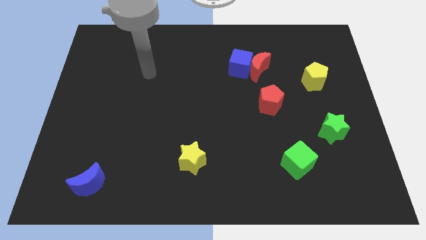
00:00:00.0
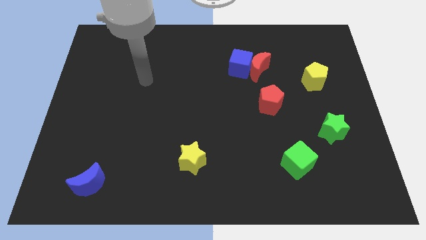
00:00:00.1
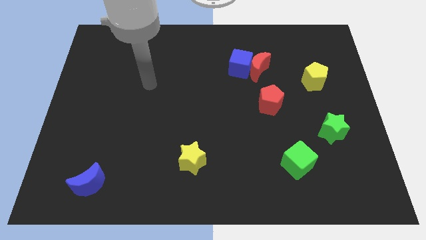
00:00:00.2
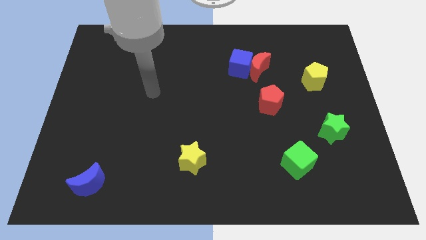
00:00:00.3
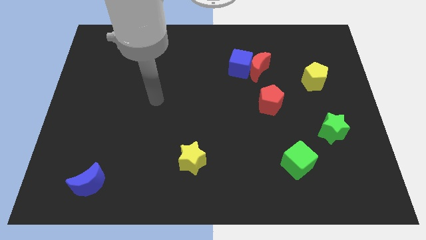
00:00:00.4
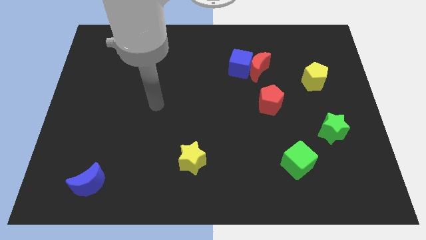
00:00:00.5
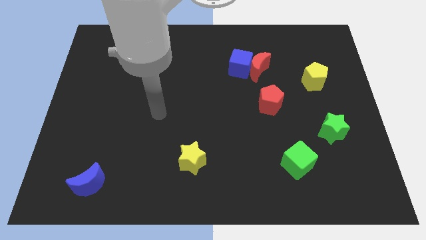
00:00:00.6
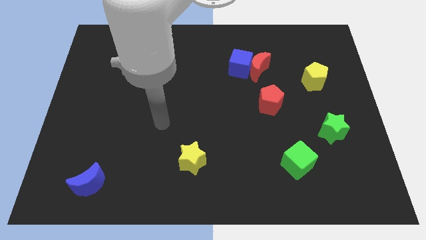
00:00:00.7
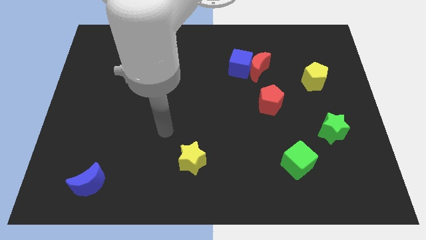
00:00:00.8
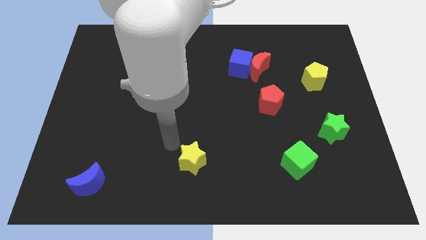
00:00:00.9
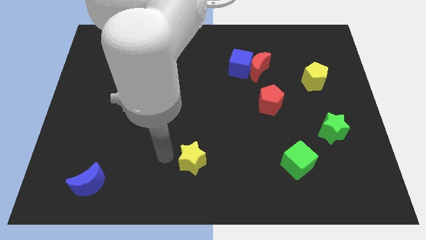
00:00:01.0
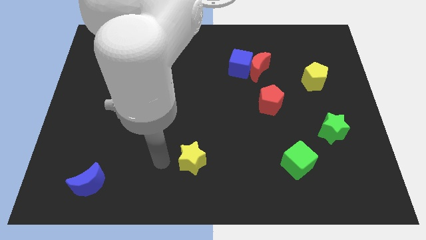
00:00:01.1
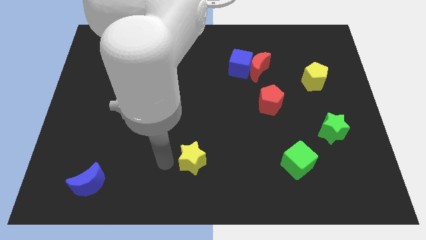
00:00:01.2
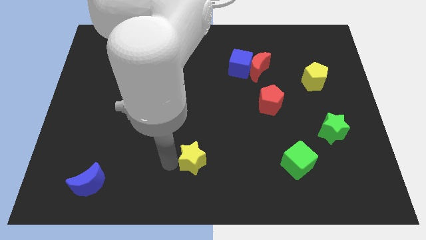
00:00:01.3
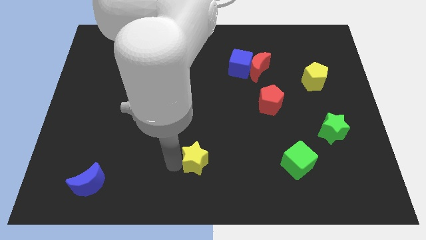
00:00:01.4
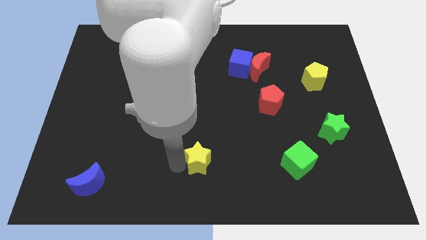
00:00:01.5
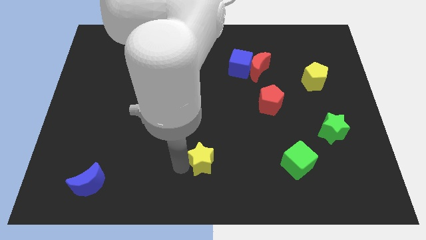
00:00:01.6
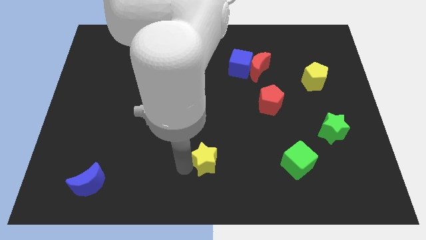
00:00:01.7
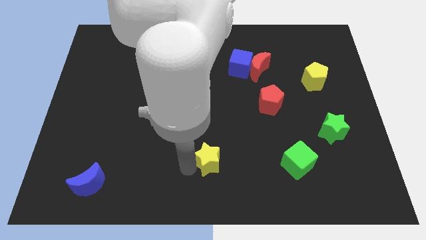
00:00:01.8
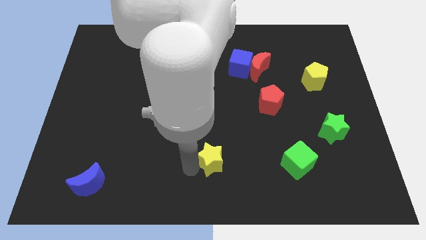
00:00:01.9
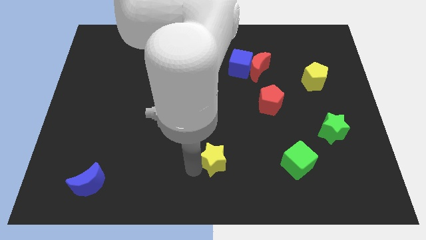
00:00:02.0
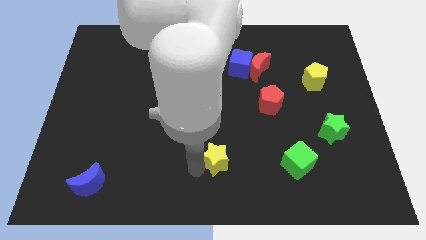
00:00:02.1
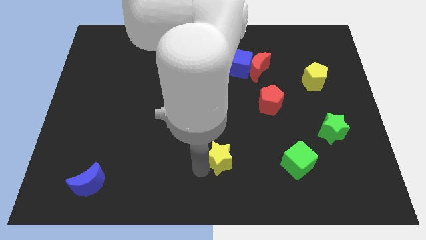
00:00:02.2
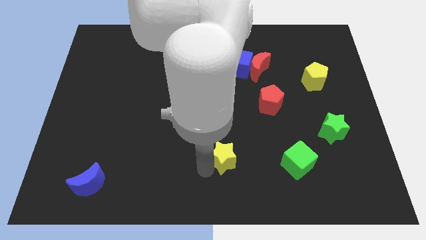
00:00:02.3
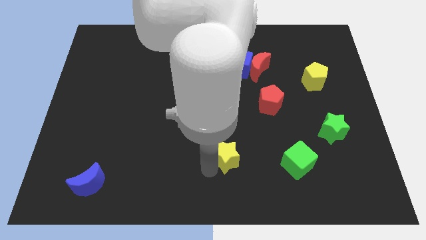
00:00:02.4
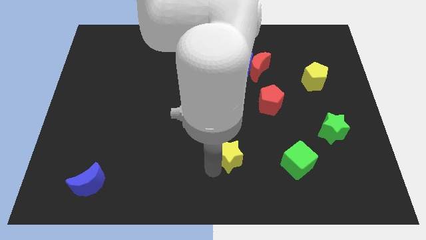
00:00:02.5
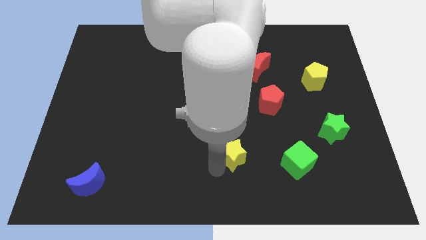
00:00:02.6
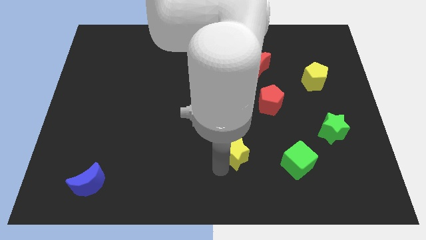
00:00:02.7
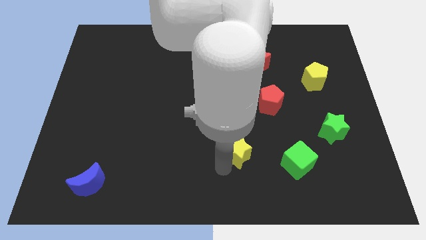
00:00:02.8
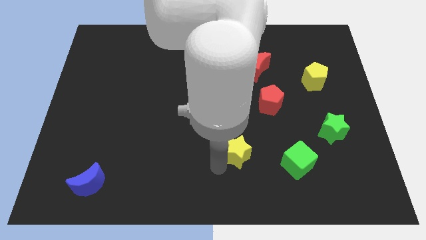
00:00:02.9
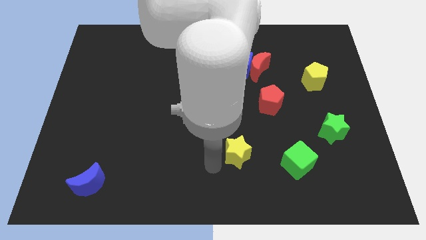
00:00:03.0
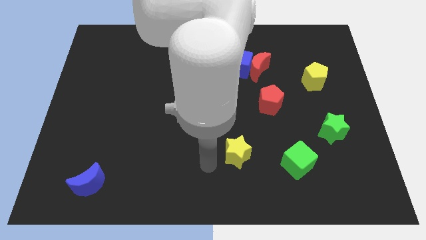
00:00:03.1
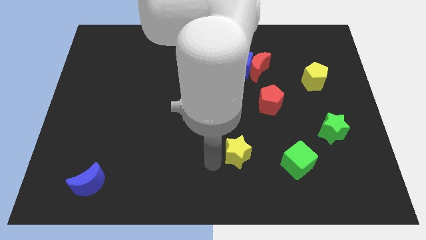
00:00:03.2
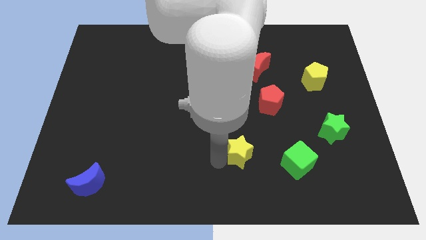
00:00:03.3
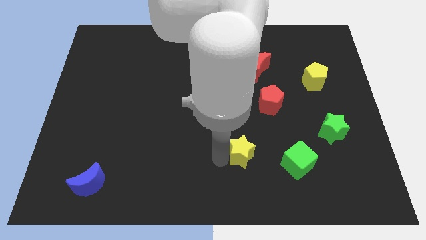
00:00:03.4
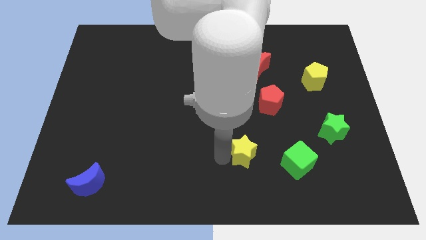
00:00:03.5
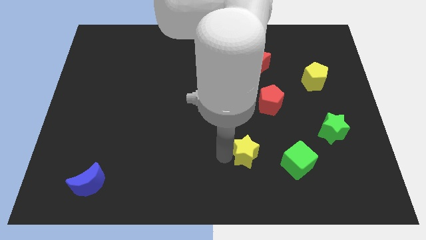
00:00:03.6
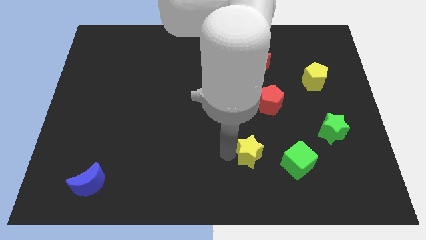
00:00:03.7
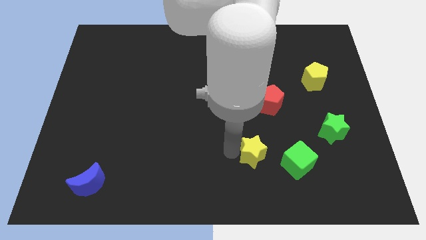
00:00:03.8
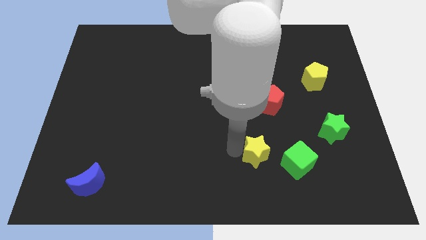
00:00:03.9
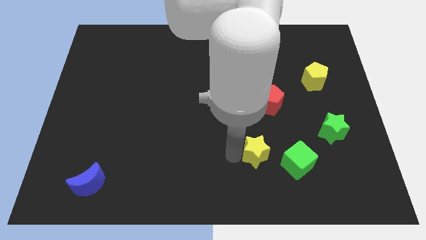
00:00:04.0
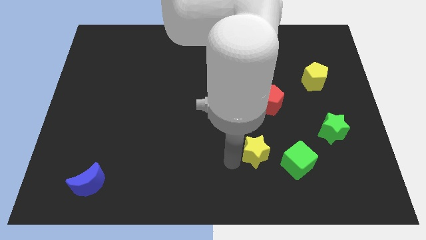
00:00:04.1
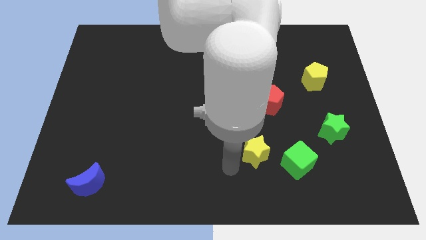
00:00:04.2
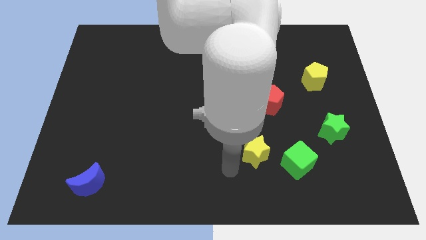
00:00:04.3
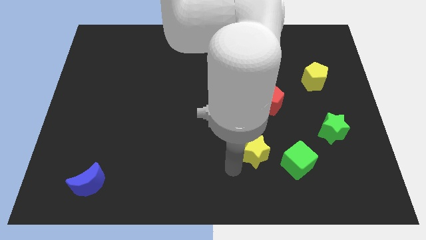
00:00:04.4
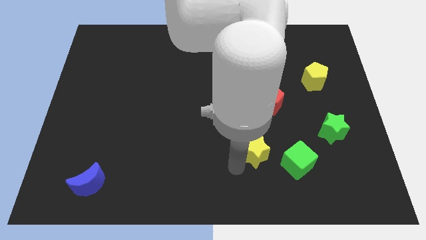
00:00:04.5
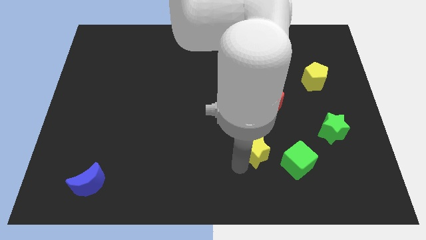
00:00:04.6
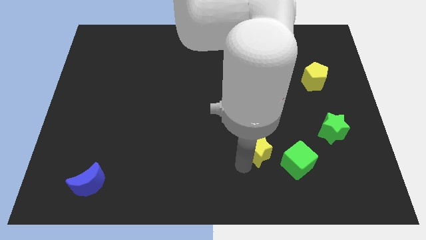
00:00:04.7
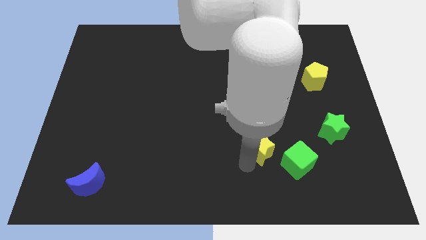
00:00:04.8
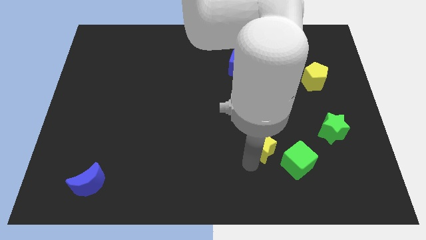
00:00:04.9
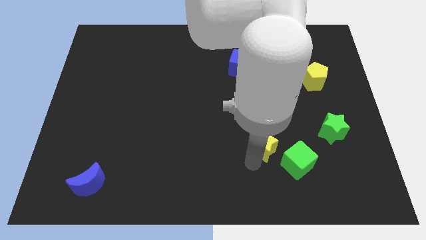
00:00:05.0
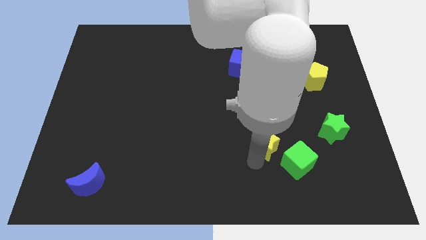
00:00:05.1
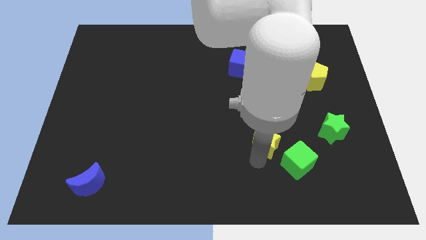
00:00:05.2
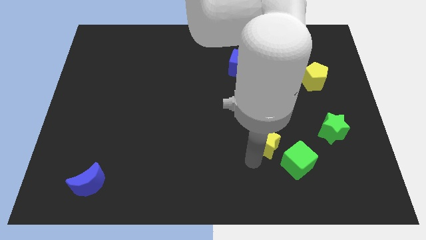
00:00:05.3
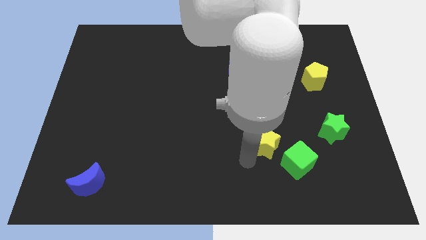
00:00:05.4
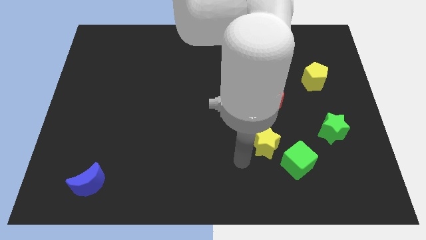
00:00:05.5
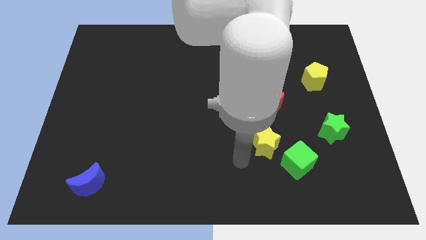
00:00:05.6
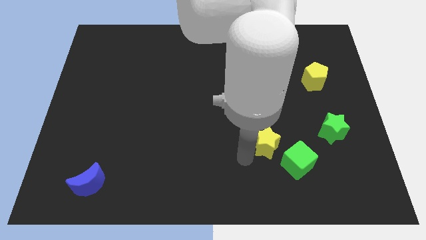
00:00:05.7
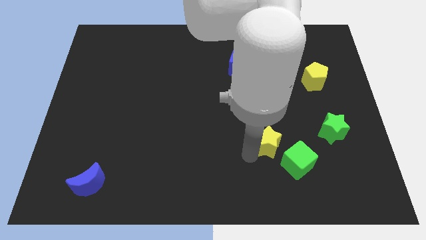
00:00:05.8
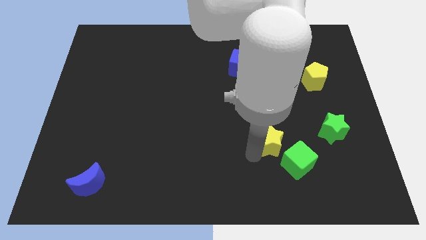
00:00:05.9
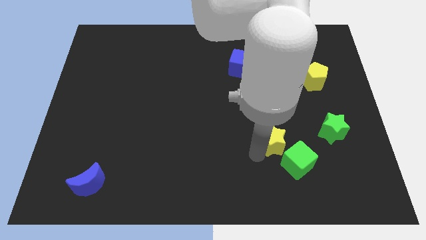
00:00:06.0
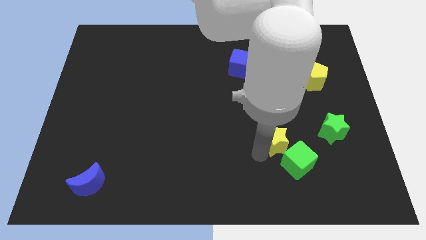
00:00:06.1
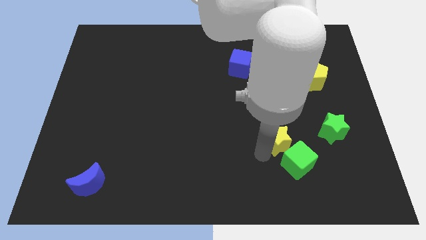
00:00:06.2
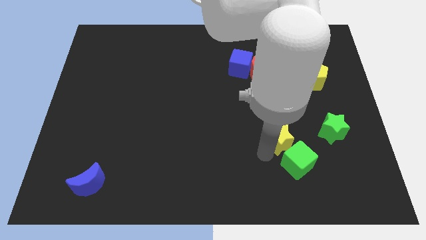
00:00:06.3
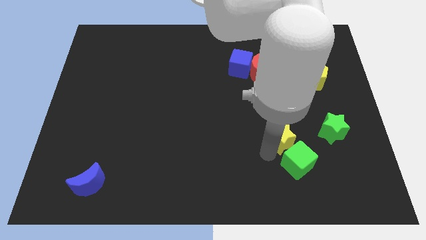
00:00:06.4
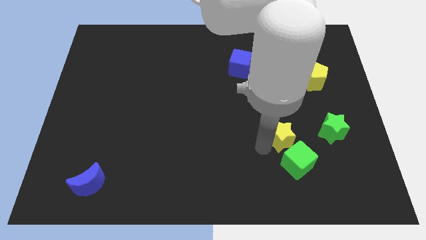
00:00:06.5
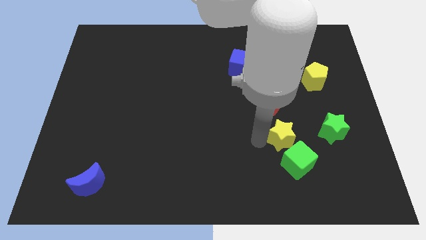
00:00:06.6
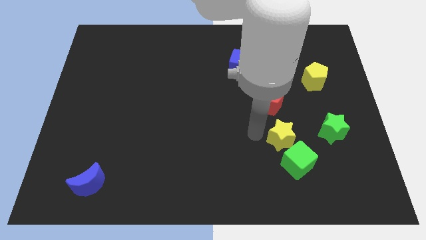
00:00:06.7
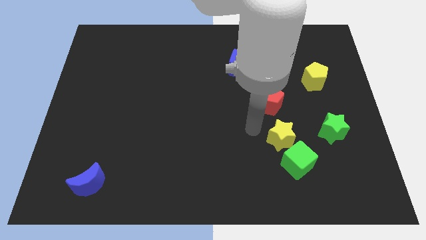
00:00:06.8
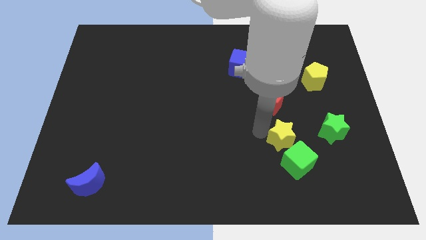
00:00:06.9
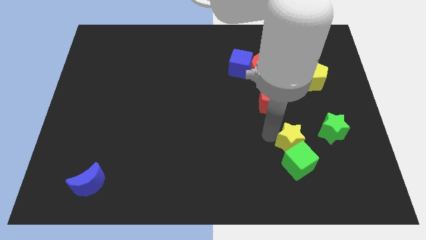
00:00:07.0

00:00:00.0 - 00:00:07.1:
push the yellow star right

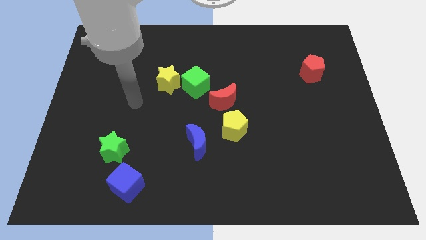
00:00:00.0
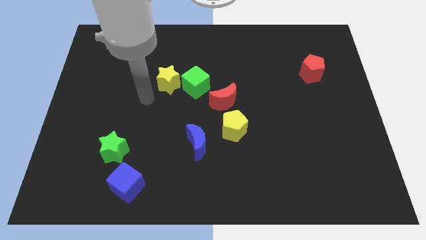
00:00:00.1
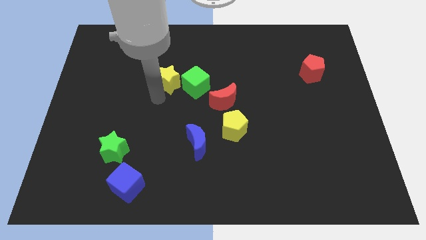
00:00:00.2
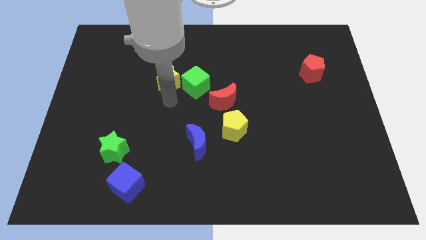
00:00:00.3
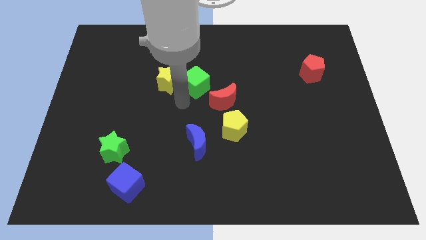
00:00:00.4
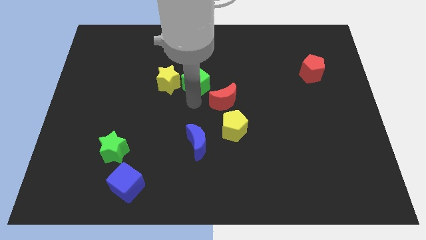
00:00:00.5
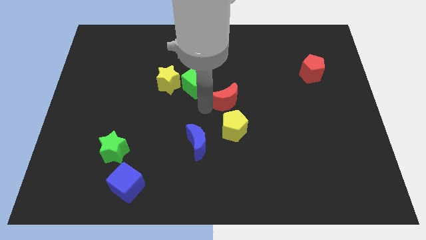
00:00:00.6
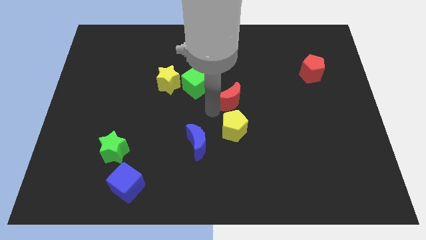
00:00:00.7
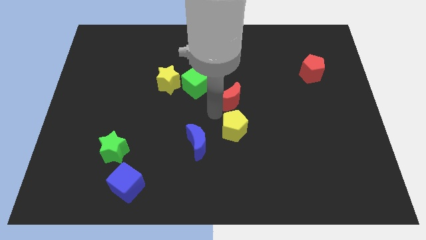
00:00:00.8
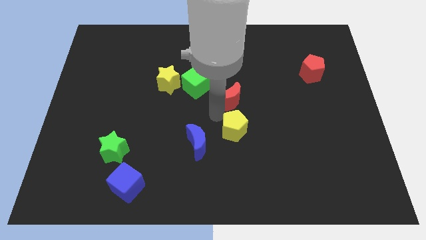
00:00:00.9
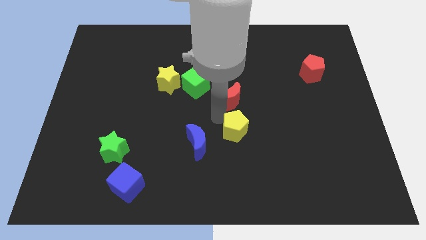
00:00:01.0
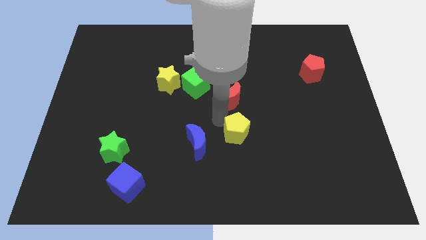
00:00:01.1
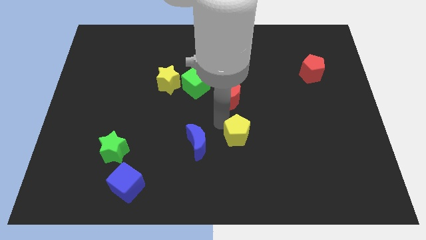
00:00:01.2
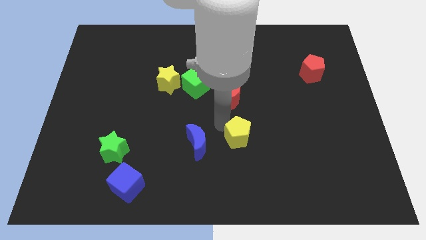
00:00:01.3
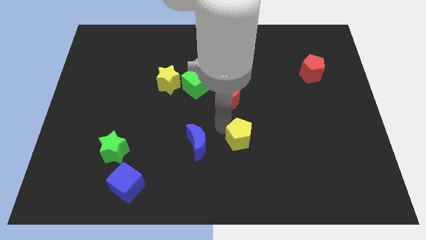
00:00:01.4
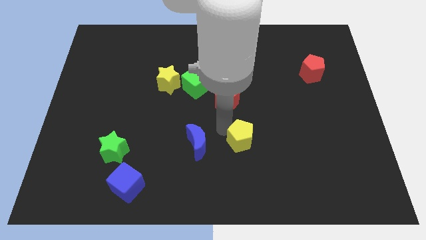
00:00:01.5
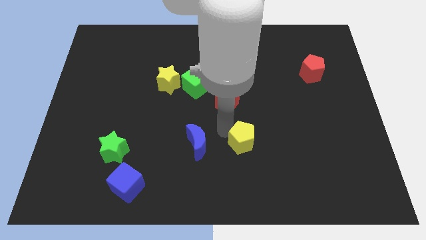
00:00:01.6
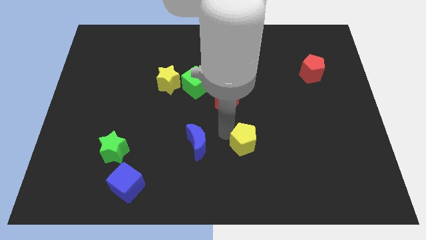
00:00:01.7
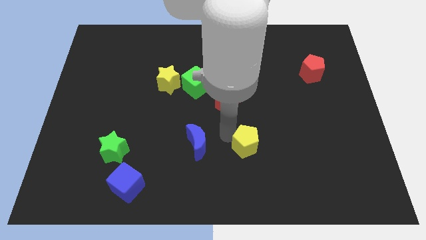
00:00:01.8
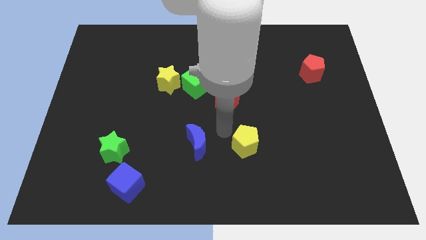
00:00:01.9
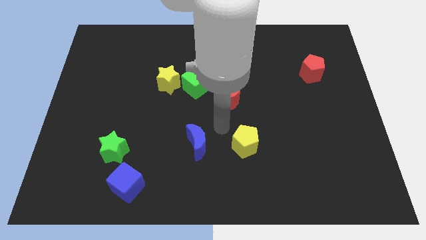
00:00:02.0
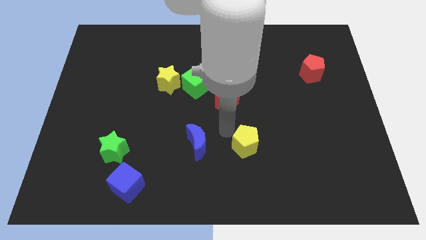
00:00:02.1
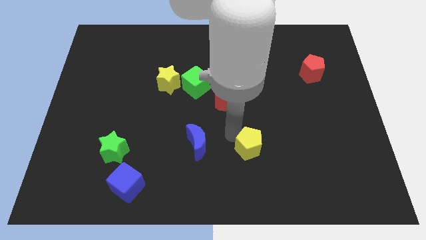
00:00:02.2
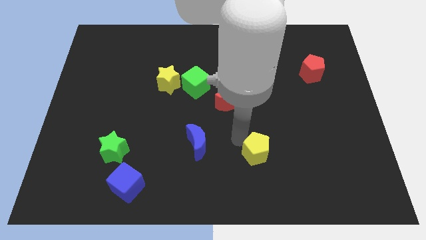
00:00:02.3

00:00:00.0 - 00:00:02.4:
slightly move the yellow pentagon down and to the right diagonally
